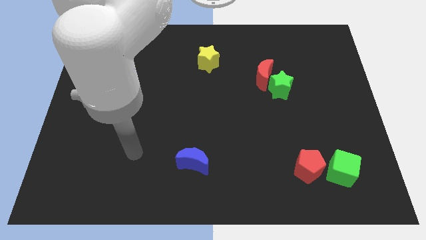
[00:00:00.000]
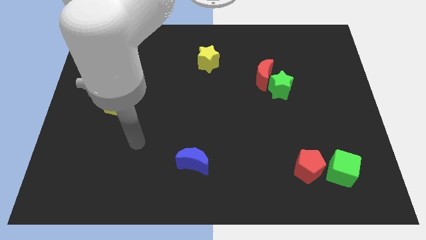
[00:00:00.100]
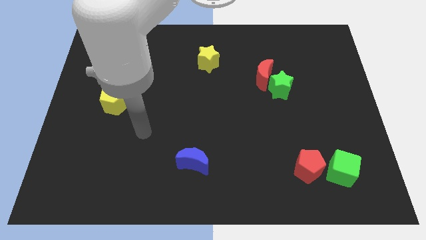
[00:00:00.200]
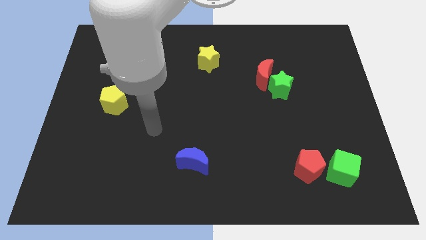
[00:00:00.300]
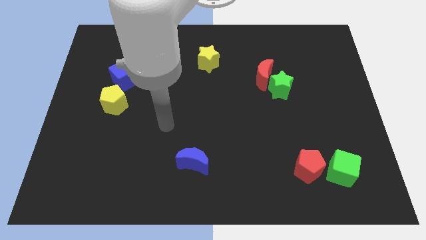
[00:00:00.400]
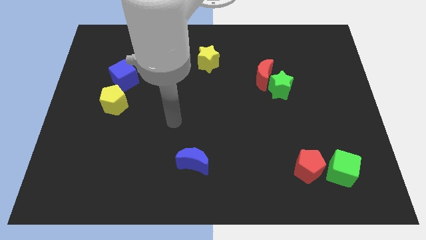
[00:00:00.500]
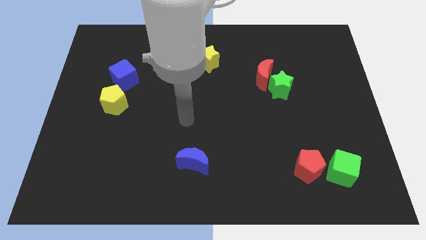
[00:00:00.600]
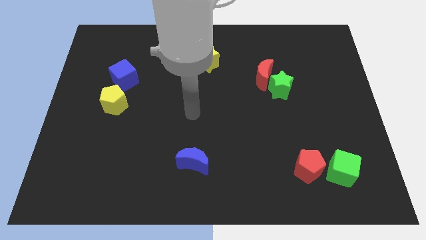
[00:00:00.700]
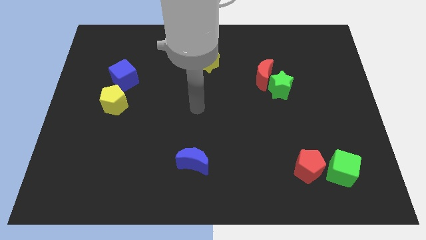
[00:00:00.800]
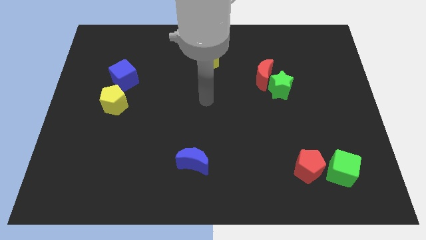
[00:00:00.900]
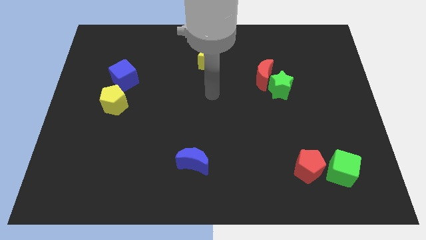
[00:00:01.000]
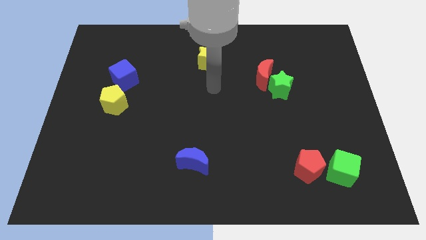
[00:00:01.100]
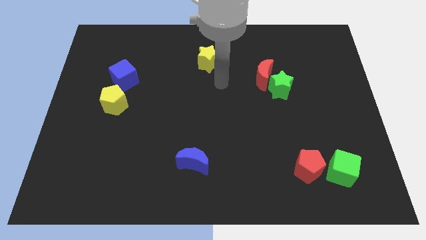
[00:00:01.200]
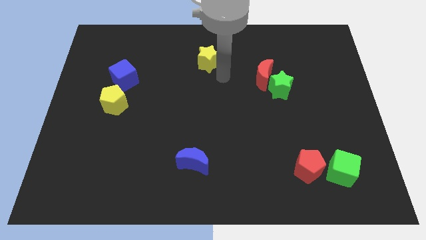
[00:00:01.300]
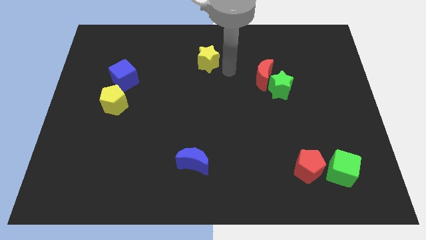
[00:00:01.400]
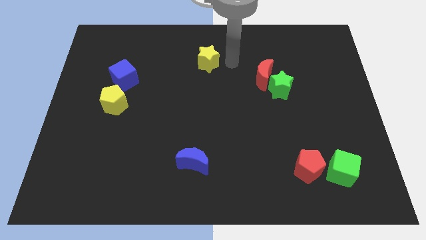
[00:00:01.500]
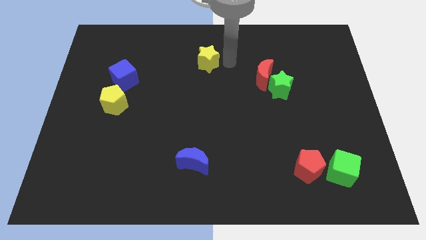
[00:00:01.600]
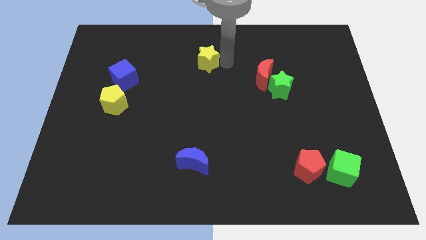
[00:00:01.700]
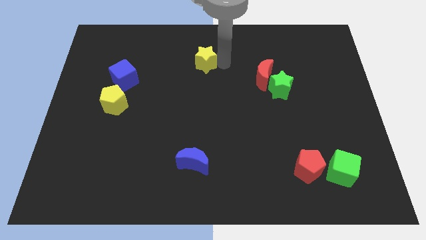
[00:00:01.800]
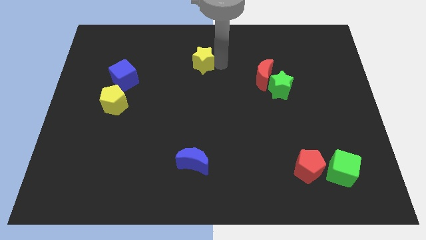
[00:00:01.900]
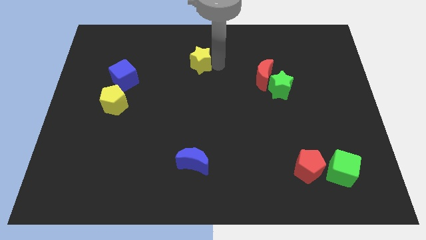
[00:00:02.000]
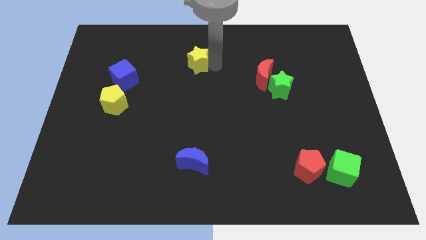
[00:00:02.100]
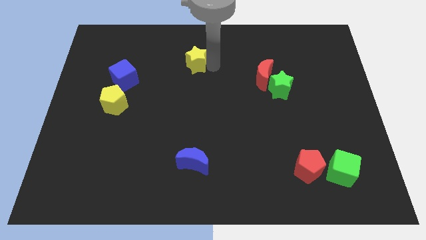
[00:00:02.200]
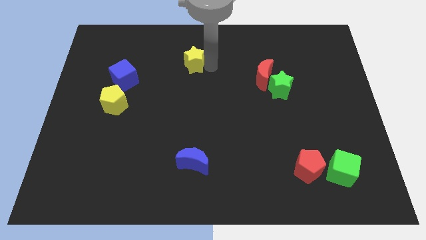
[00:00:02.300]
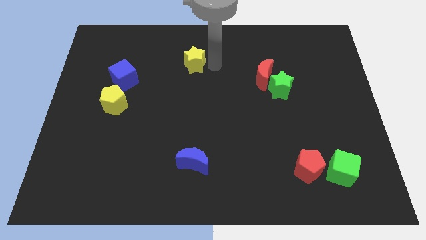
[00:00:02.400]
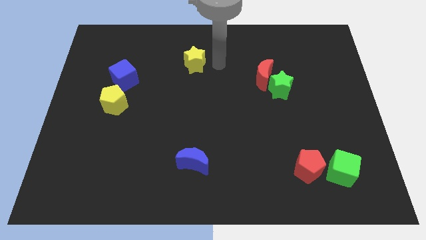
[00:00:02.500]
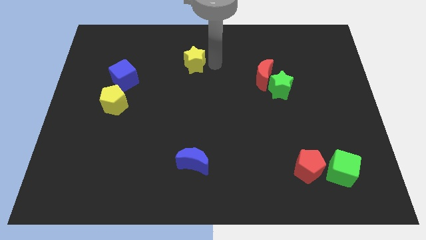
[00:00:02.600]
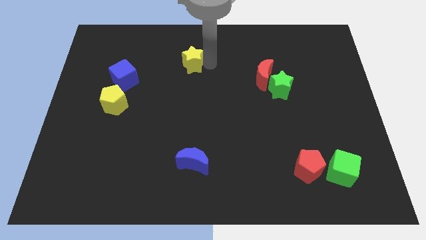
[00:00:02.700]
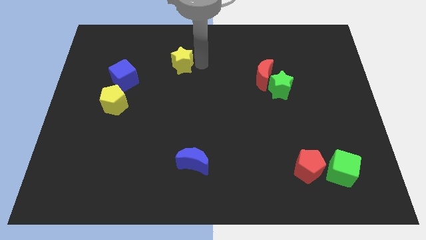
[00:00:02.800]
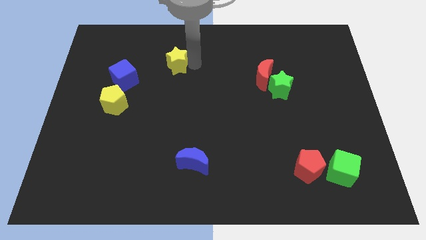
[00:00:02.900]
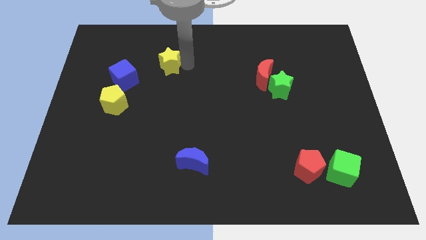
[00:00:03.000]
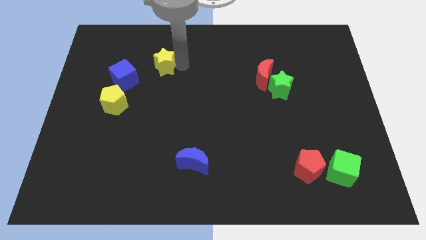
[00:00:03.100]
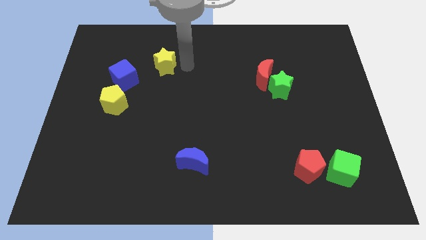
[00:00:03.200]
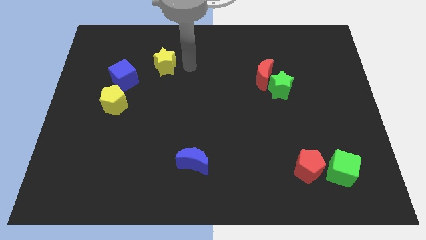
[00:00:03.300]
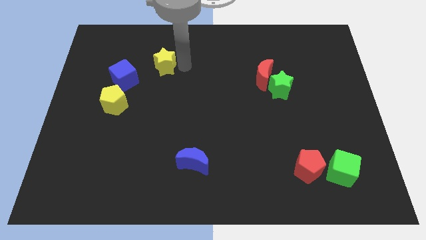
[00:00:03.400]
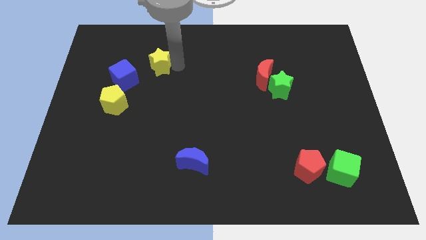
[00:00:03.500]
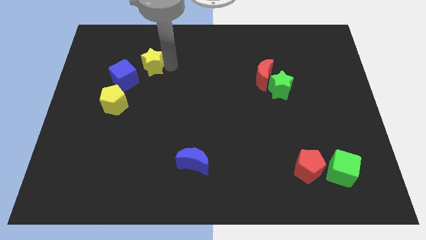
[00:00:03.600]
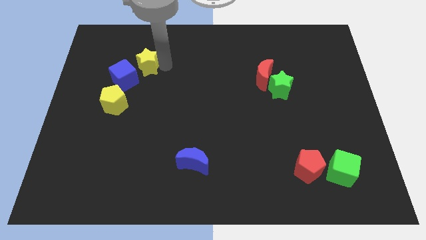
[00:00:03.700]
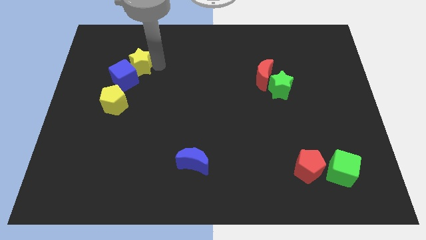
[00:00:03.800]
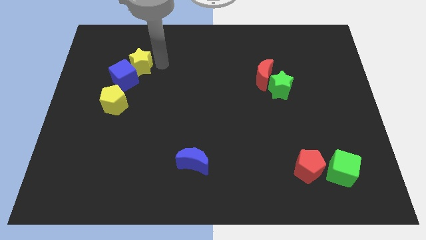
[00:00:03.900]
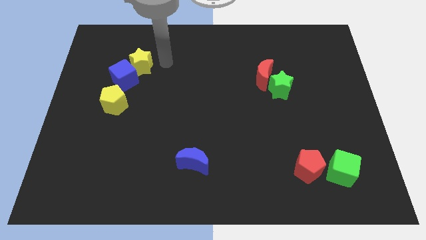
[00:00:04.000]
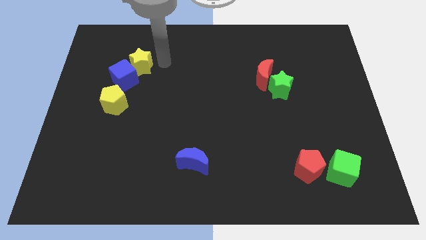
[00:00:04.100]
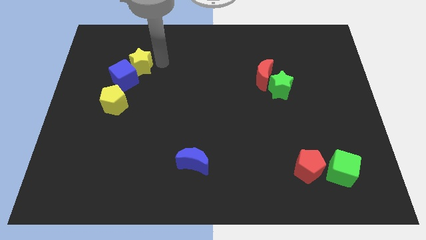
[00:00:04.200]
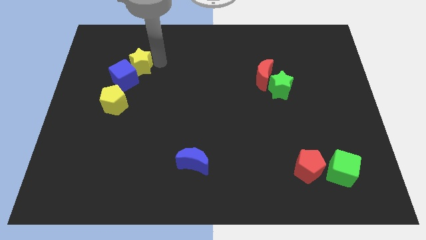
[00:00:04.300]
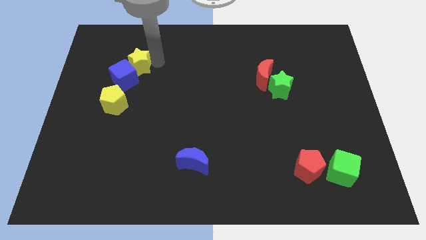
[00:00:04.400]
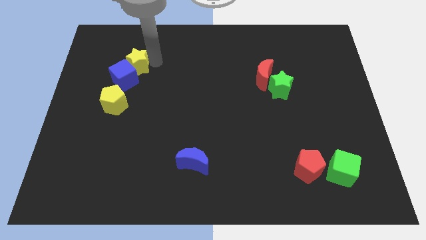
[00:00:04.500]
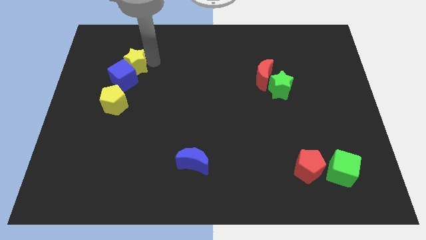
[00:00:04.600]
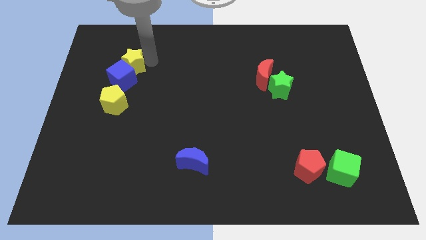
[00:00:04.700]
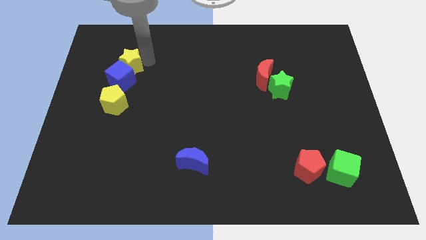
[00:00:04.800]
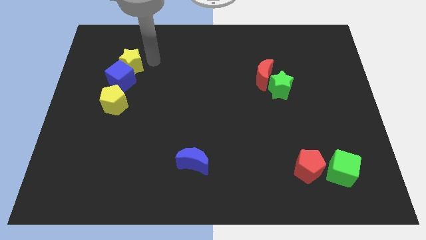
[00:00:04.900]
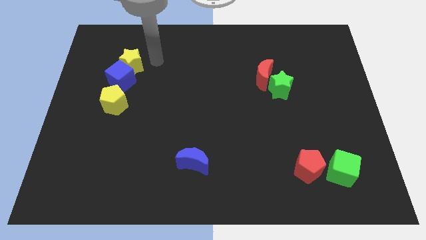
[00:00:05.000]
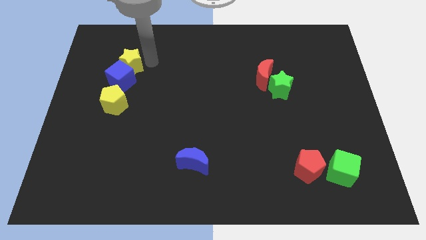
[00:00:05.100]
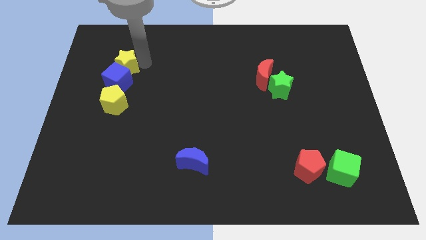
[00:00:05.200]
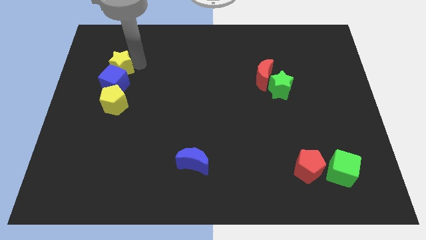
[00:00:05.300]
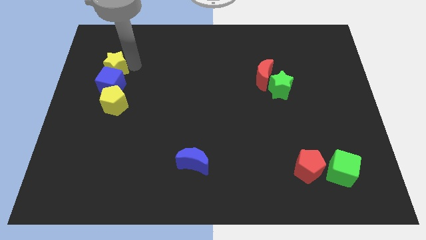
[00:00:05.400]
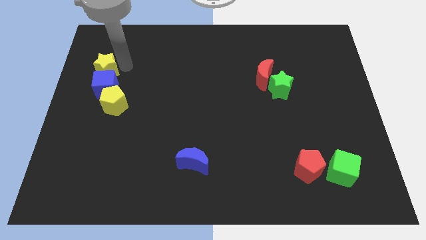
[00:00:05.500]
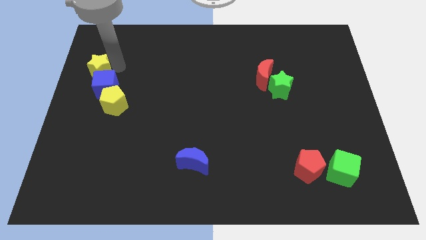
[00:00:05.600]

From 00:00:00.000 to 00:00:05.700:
slide the yellow star to the center left

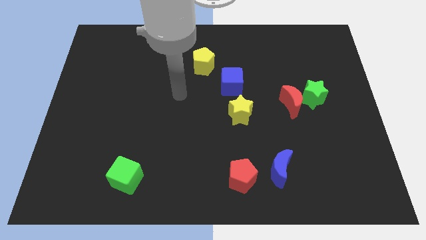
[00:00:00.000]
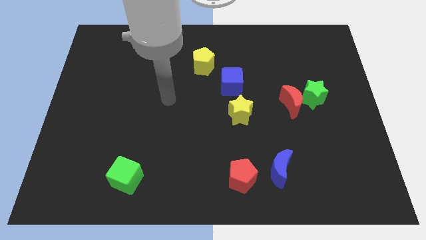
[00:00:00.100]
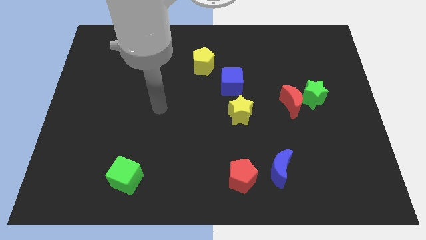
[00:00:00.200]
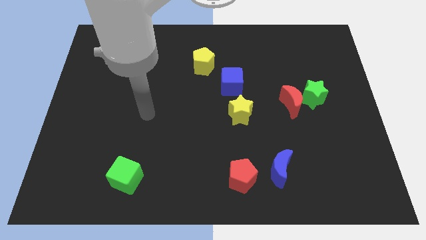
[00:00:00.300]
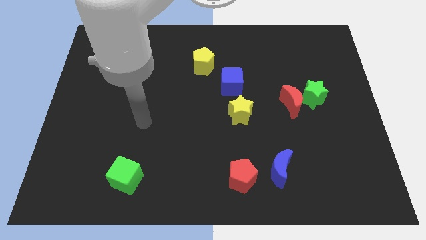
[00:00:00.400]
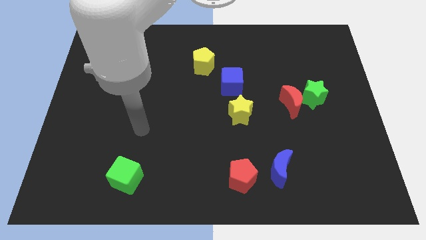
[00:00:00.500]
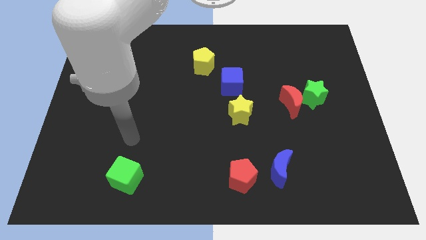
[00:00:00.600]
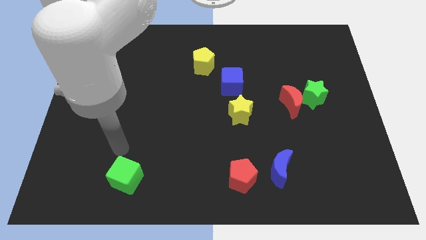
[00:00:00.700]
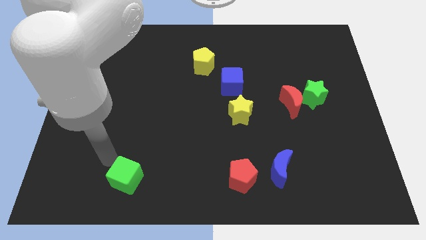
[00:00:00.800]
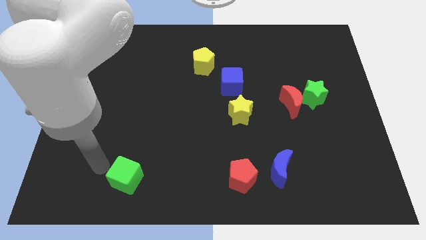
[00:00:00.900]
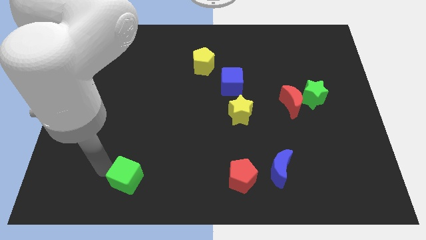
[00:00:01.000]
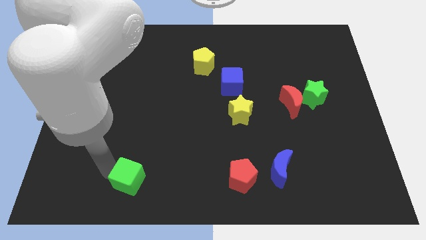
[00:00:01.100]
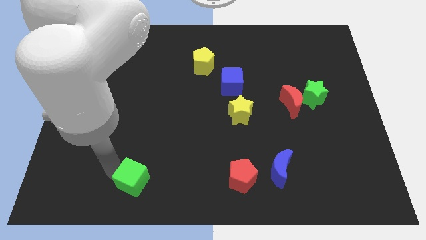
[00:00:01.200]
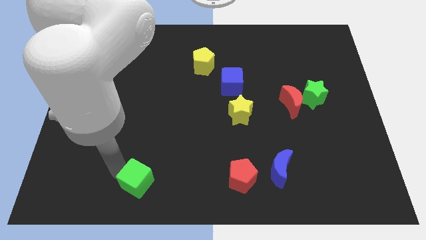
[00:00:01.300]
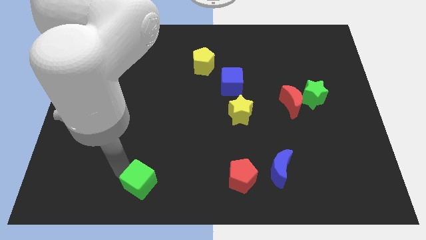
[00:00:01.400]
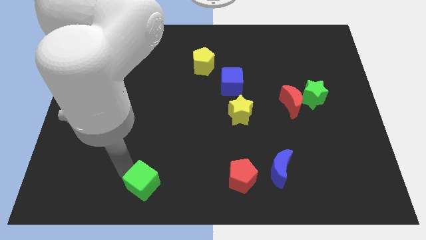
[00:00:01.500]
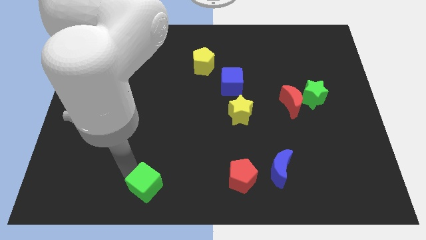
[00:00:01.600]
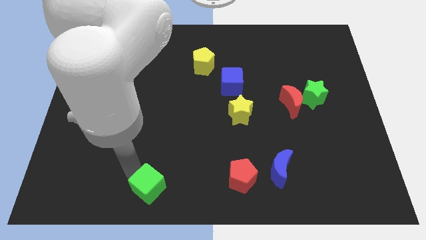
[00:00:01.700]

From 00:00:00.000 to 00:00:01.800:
push the green cube to the bottom side
